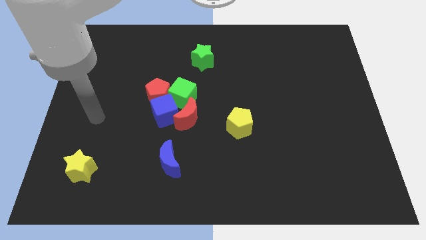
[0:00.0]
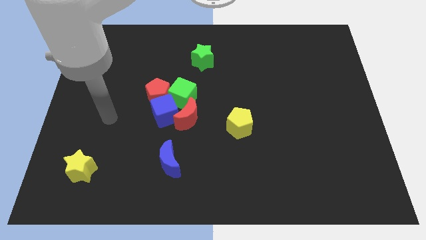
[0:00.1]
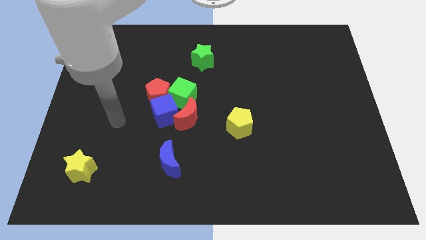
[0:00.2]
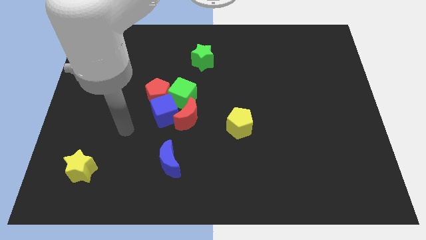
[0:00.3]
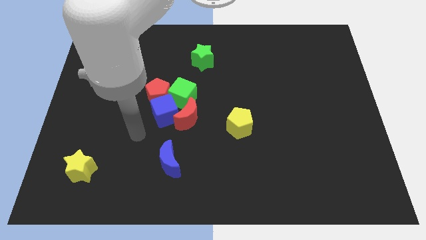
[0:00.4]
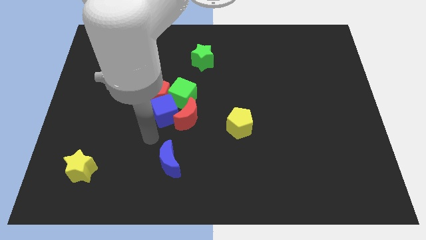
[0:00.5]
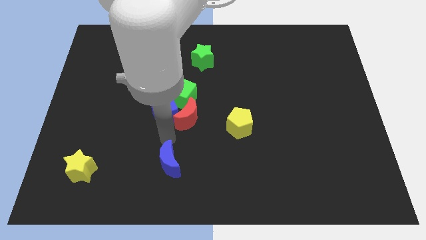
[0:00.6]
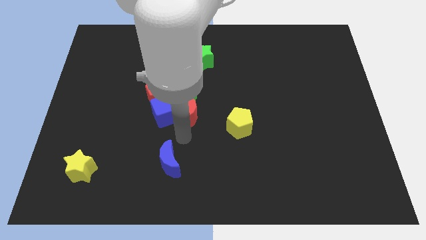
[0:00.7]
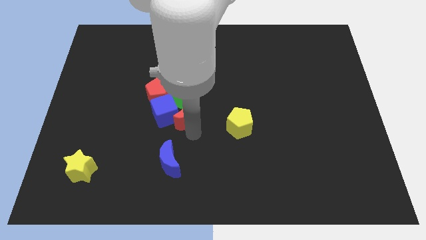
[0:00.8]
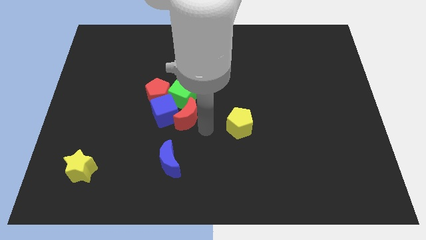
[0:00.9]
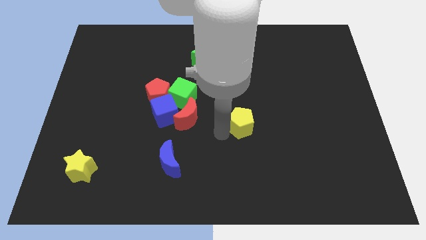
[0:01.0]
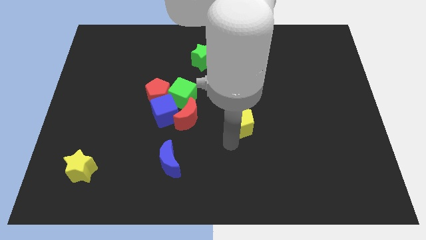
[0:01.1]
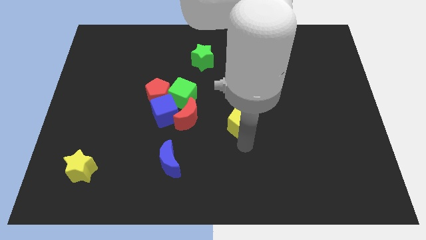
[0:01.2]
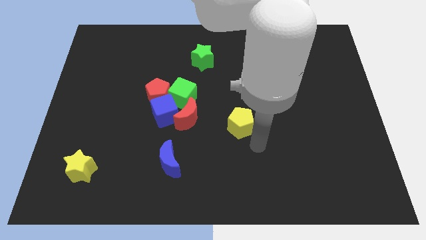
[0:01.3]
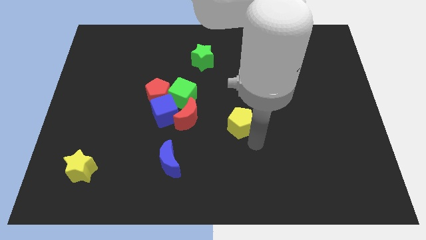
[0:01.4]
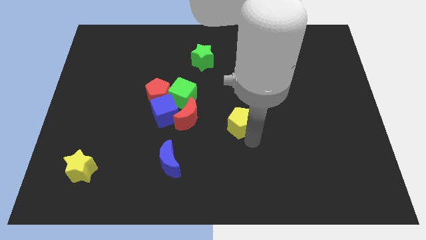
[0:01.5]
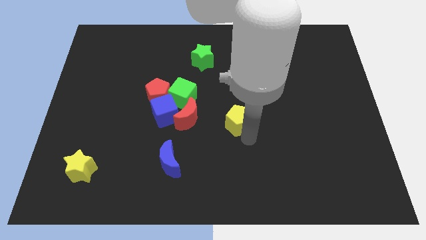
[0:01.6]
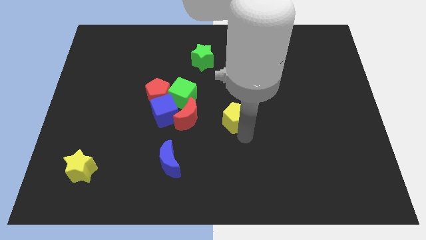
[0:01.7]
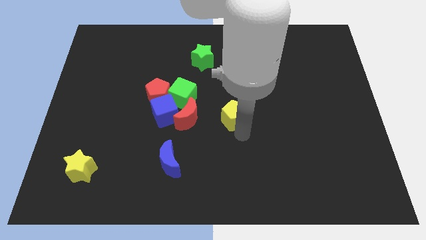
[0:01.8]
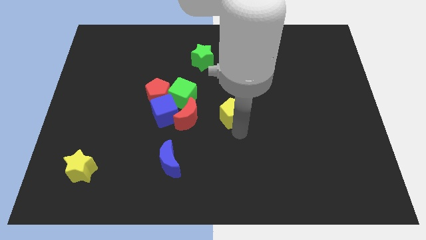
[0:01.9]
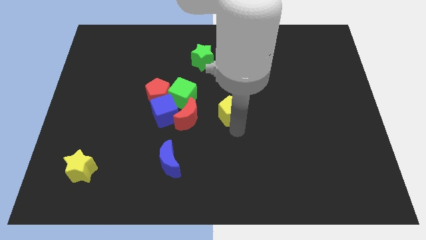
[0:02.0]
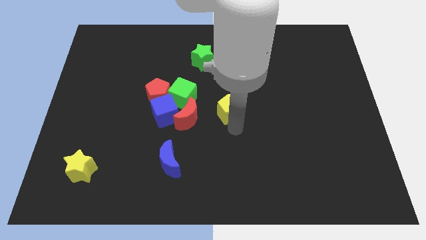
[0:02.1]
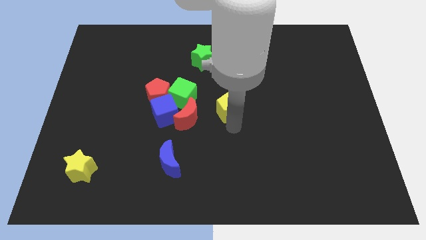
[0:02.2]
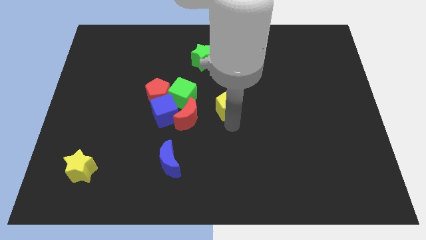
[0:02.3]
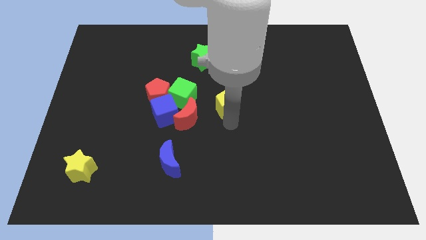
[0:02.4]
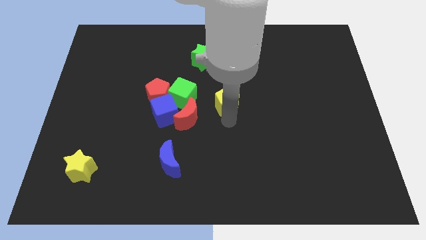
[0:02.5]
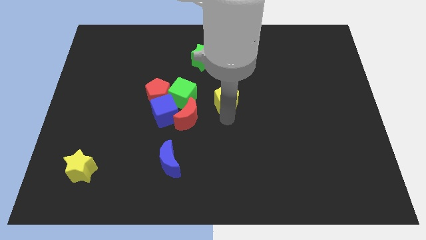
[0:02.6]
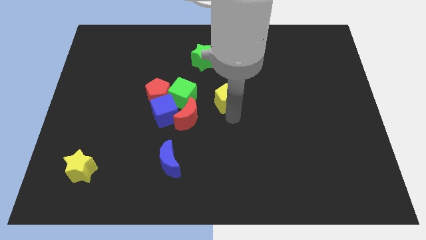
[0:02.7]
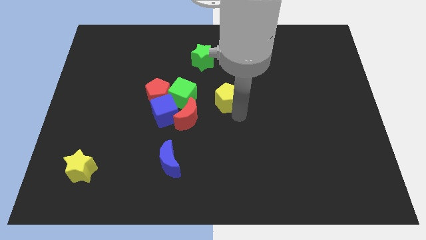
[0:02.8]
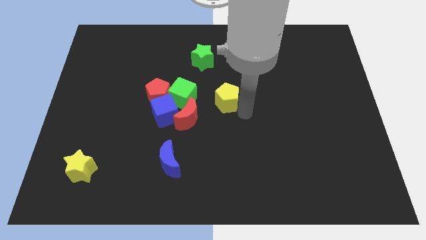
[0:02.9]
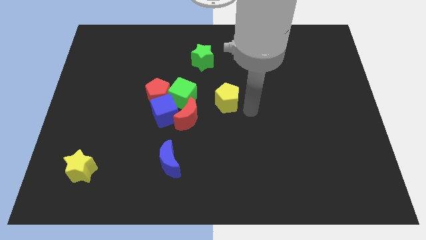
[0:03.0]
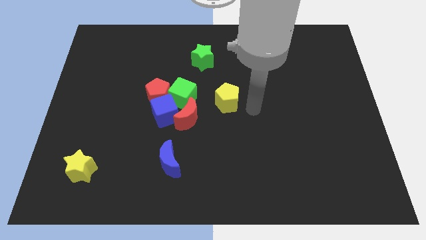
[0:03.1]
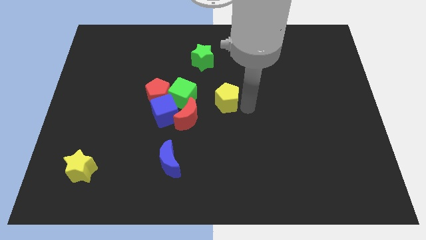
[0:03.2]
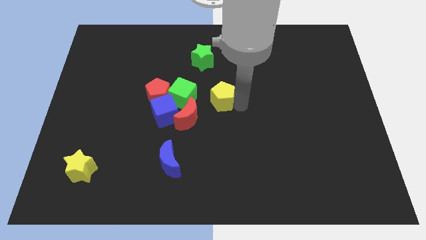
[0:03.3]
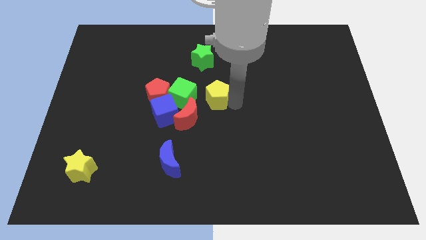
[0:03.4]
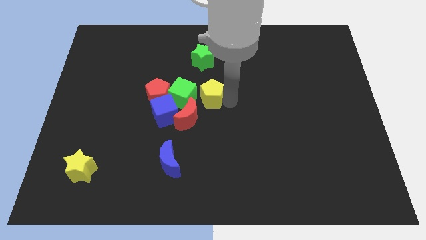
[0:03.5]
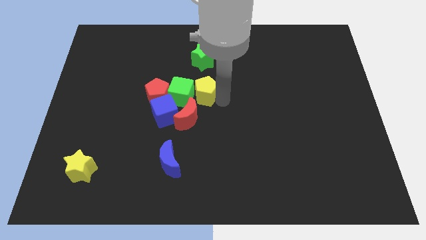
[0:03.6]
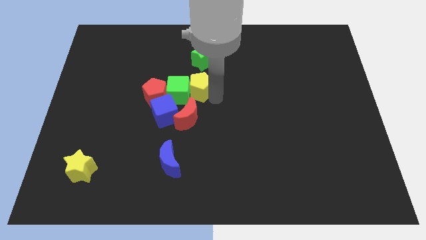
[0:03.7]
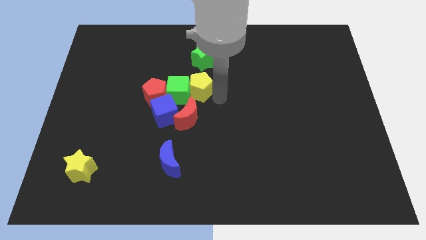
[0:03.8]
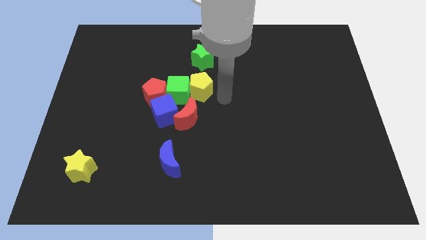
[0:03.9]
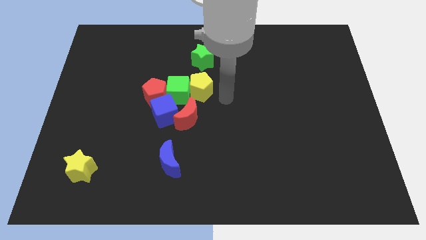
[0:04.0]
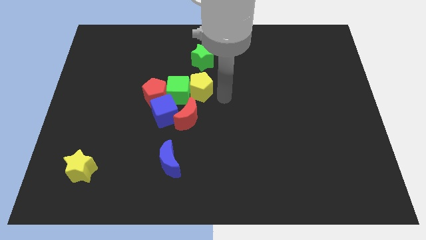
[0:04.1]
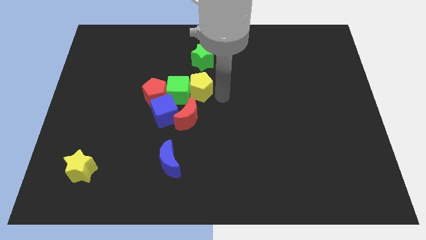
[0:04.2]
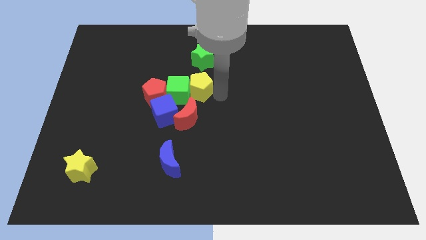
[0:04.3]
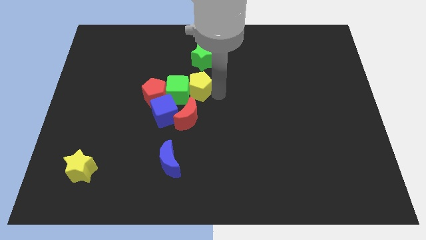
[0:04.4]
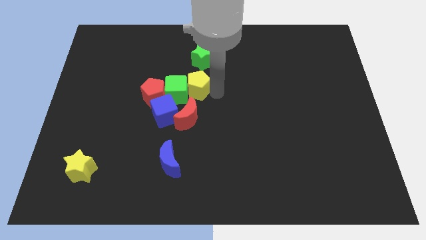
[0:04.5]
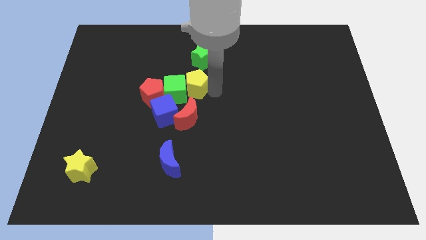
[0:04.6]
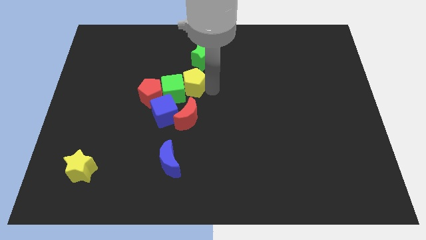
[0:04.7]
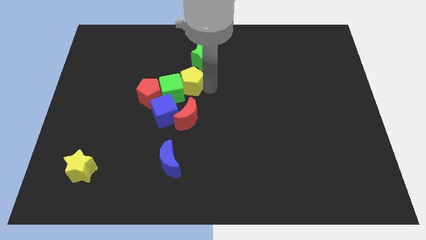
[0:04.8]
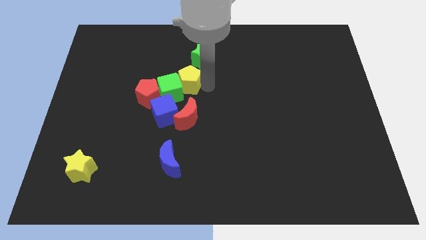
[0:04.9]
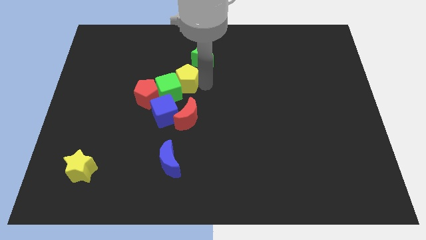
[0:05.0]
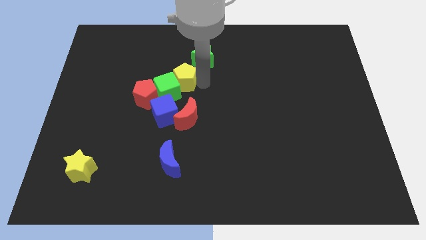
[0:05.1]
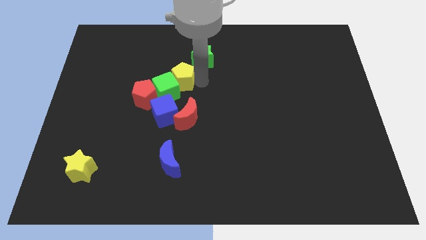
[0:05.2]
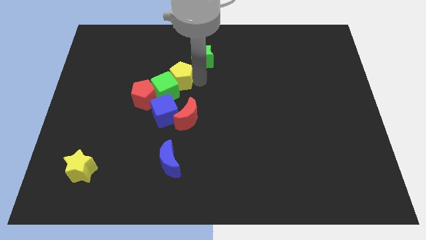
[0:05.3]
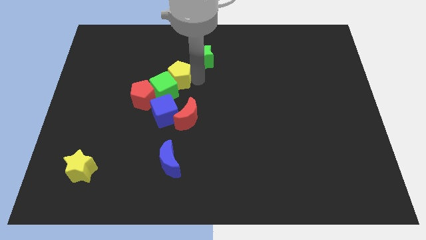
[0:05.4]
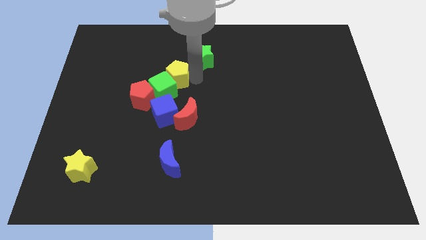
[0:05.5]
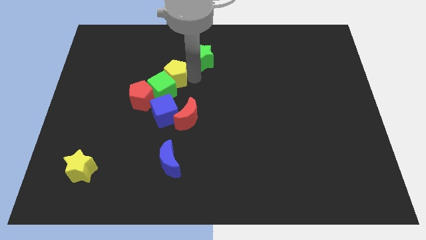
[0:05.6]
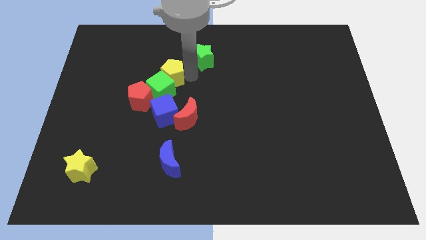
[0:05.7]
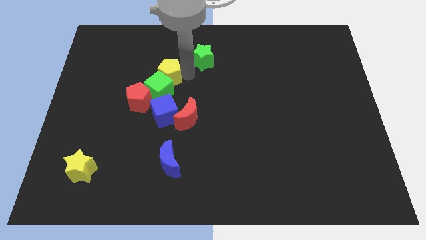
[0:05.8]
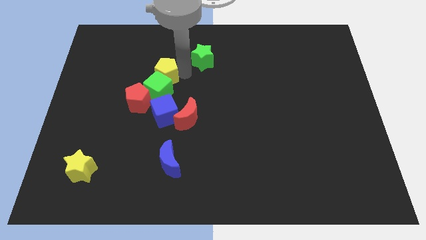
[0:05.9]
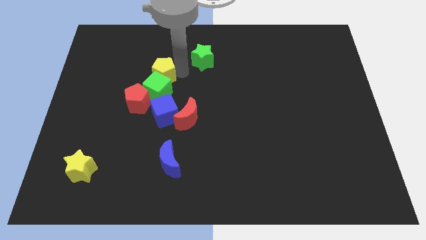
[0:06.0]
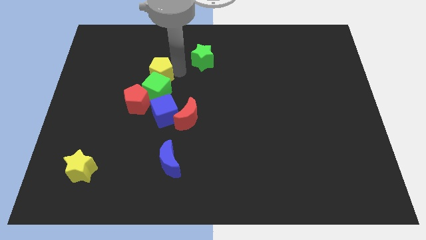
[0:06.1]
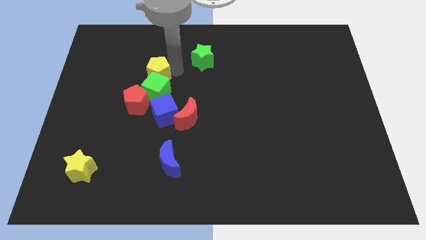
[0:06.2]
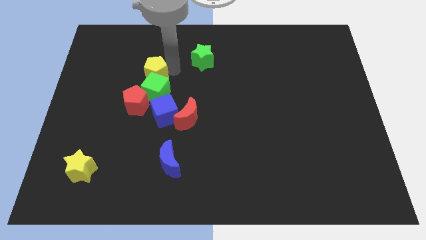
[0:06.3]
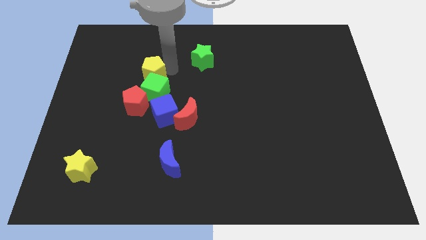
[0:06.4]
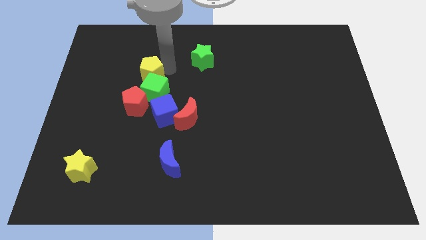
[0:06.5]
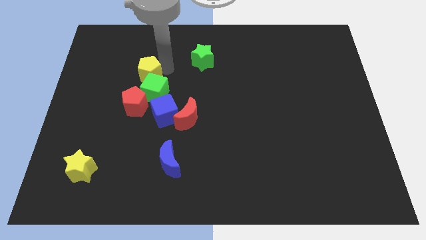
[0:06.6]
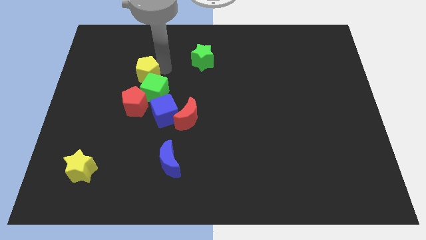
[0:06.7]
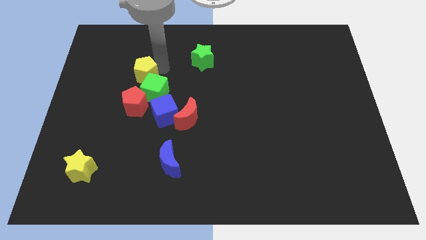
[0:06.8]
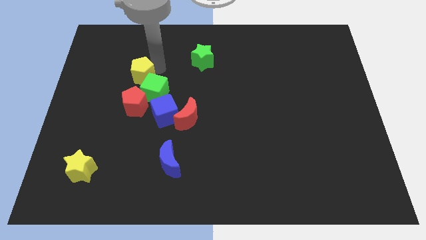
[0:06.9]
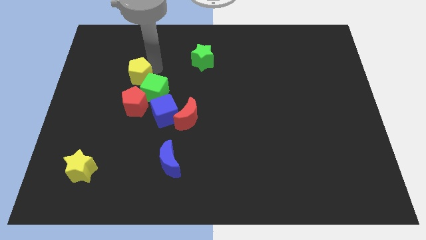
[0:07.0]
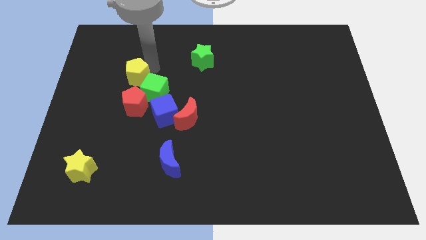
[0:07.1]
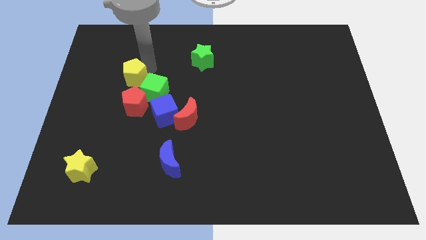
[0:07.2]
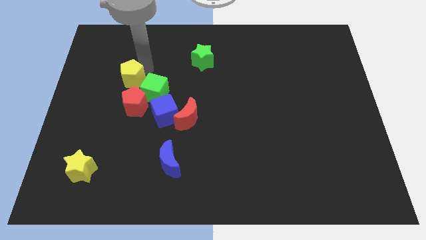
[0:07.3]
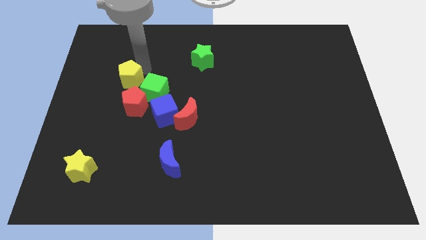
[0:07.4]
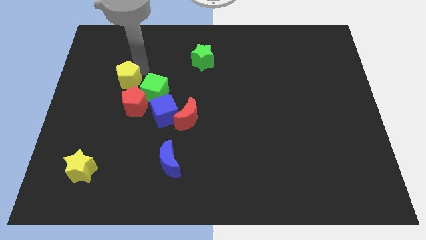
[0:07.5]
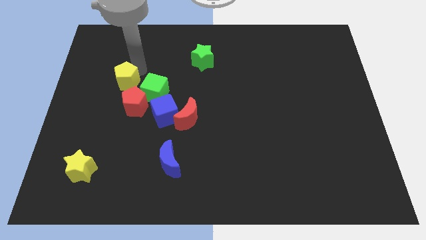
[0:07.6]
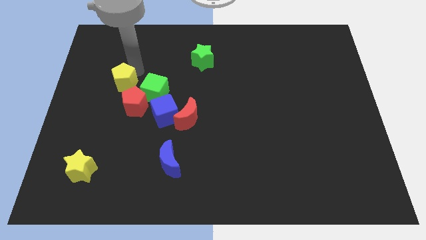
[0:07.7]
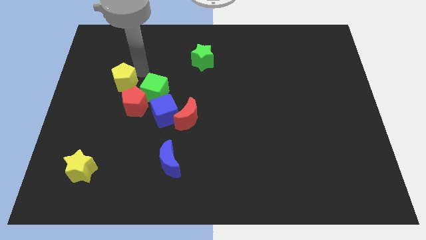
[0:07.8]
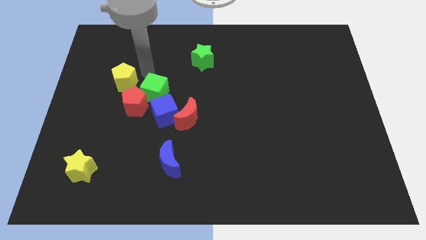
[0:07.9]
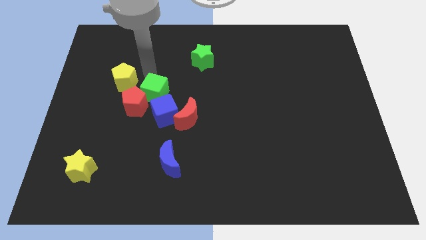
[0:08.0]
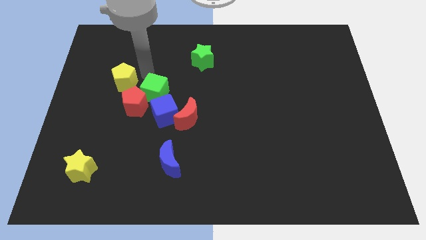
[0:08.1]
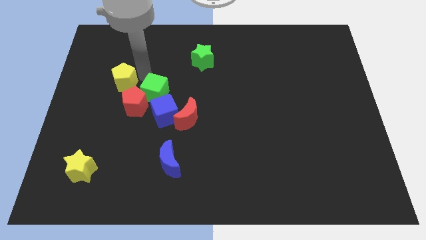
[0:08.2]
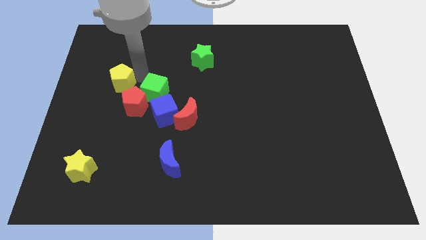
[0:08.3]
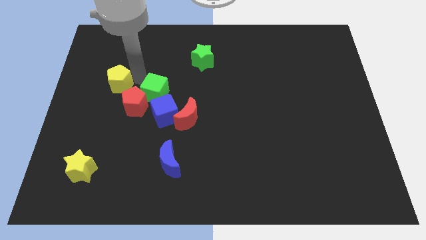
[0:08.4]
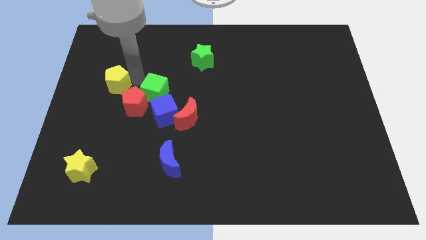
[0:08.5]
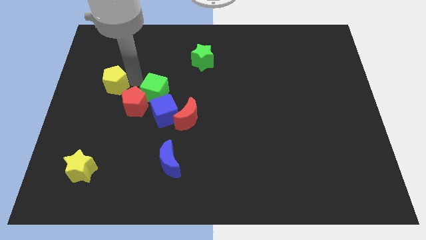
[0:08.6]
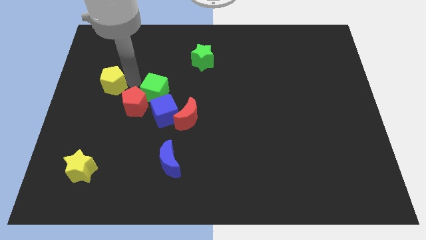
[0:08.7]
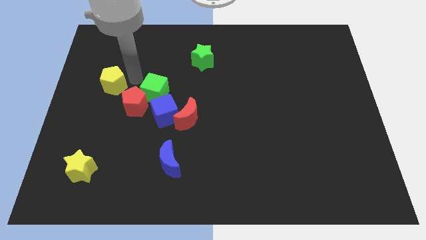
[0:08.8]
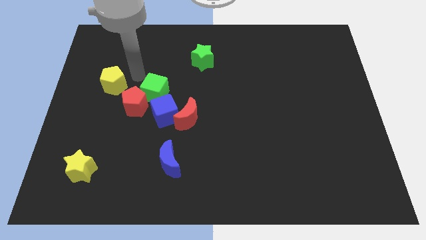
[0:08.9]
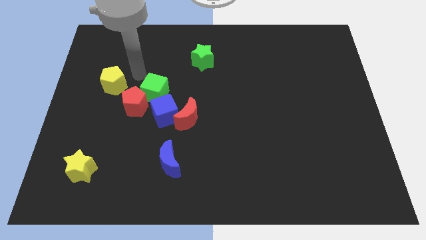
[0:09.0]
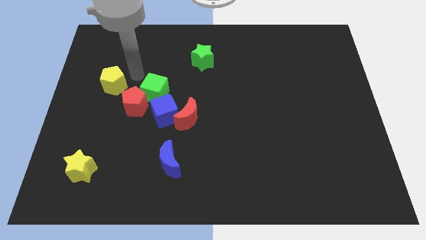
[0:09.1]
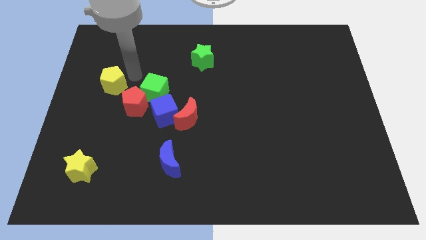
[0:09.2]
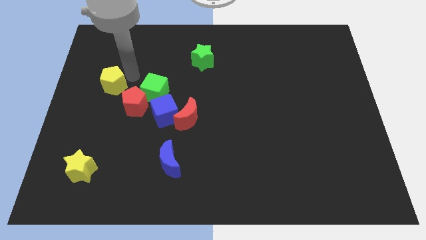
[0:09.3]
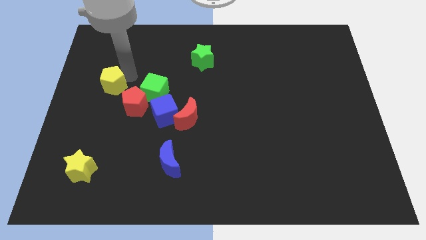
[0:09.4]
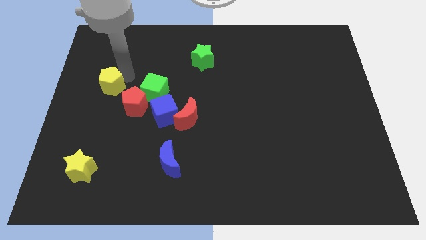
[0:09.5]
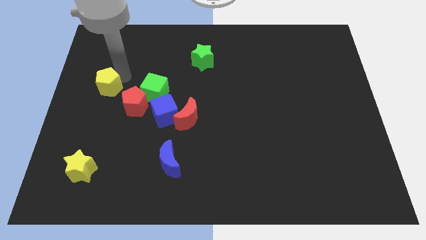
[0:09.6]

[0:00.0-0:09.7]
push the yellow pentagon to the center left
